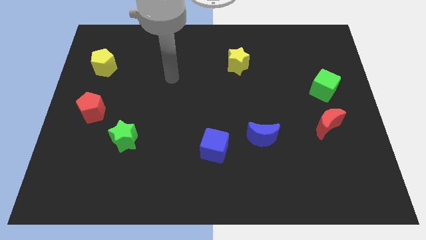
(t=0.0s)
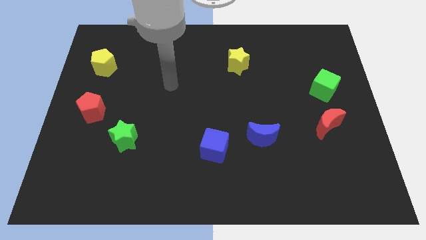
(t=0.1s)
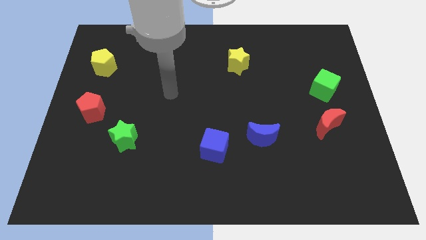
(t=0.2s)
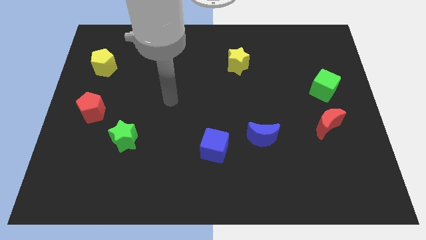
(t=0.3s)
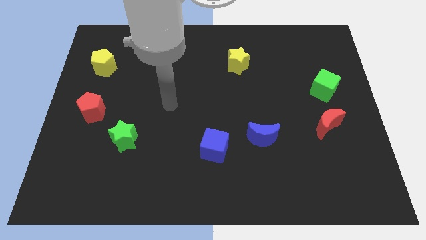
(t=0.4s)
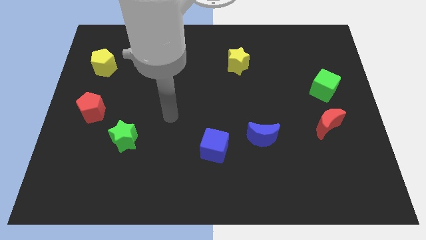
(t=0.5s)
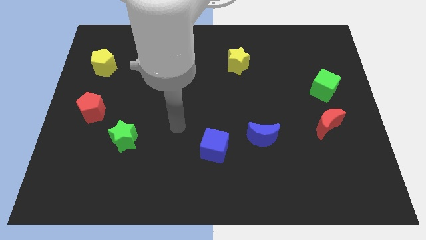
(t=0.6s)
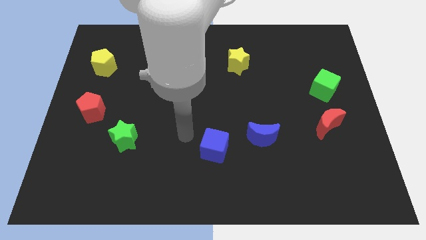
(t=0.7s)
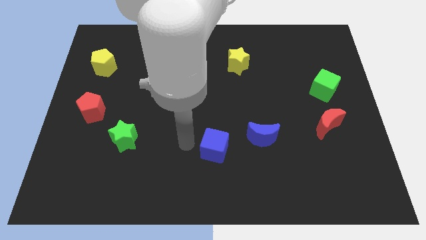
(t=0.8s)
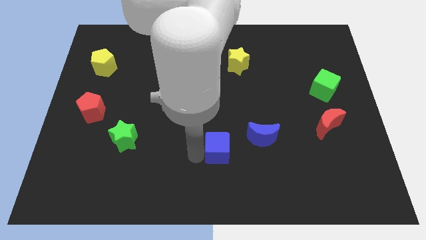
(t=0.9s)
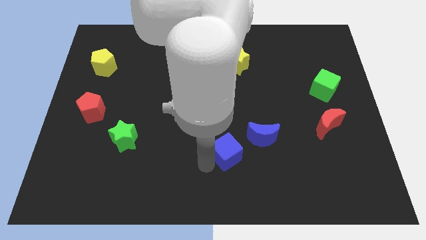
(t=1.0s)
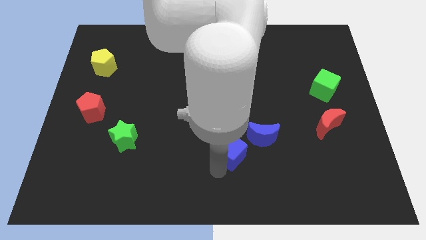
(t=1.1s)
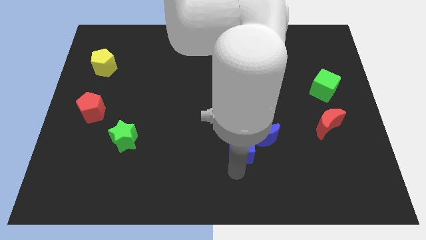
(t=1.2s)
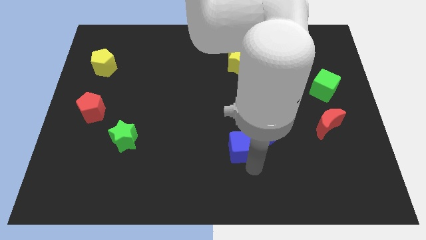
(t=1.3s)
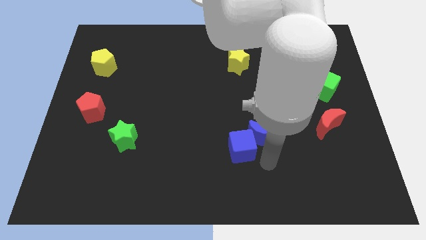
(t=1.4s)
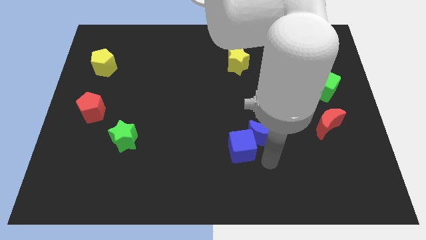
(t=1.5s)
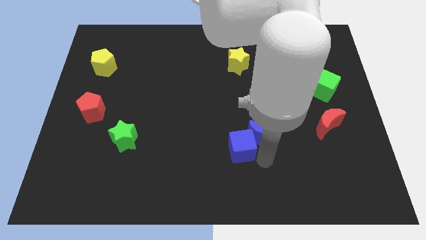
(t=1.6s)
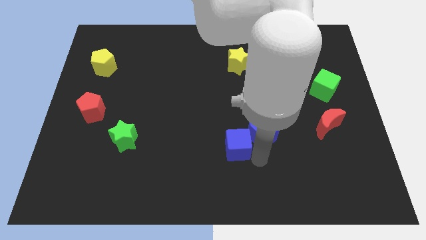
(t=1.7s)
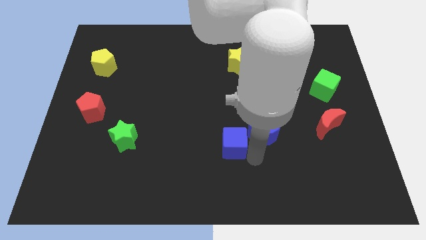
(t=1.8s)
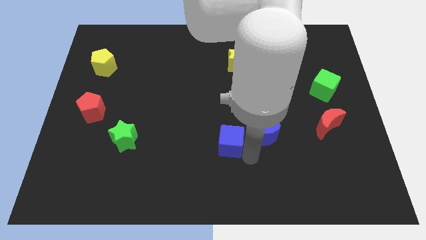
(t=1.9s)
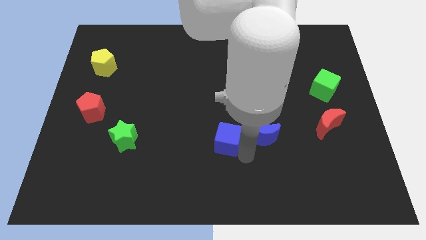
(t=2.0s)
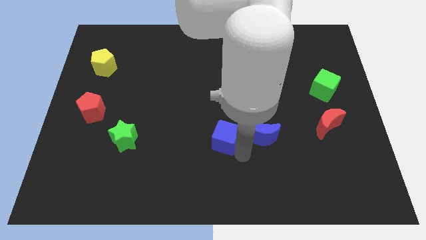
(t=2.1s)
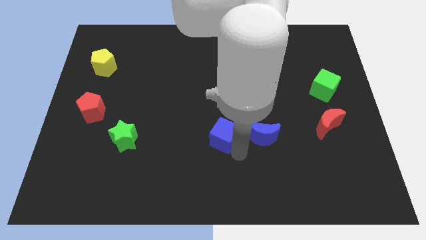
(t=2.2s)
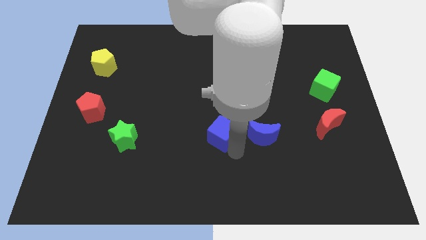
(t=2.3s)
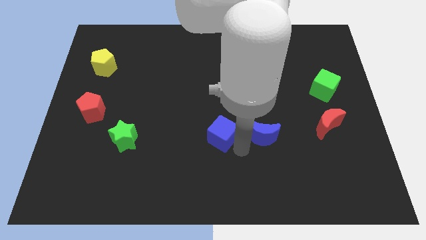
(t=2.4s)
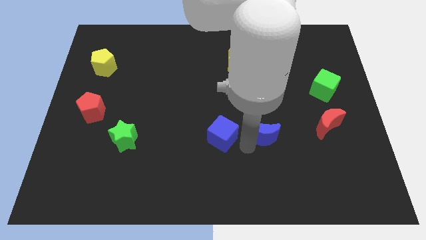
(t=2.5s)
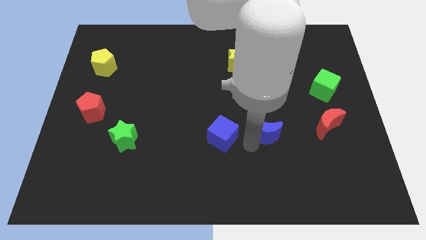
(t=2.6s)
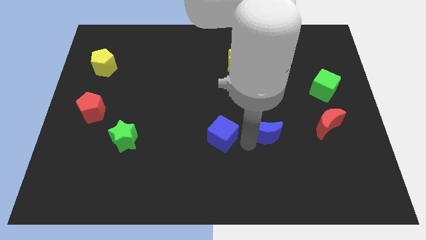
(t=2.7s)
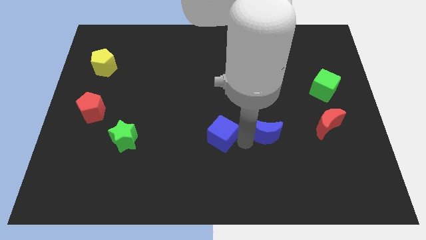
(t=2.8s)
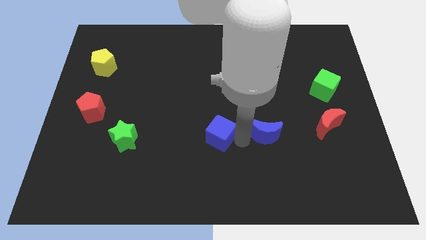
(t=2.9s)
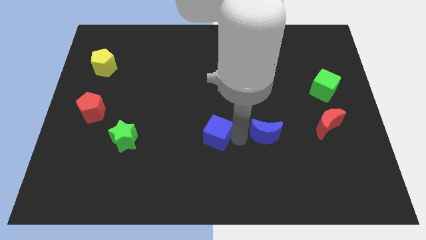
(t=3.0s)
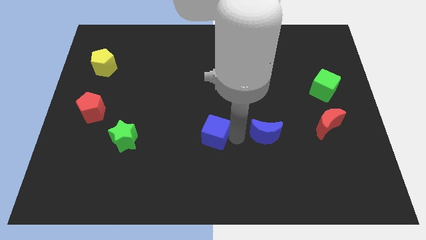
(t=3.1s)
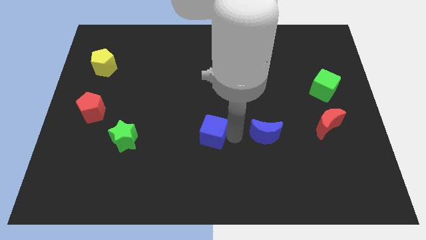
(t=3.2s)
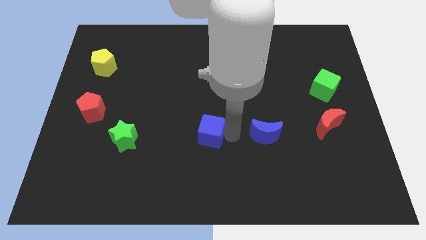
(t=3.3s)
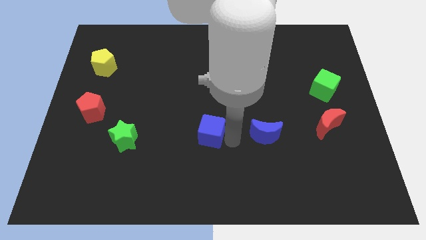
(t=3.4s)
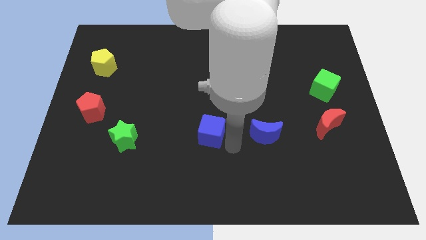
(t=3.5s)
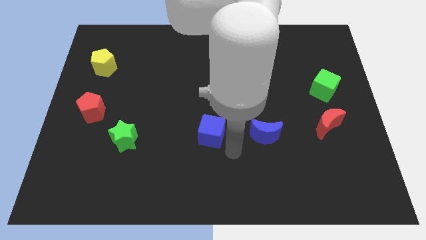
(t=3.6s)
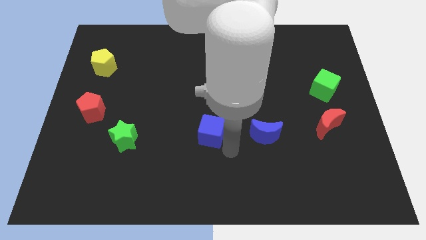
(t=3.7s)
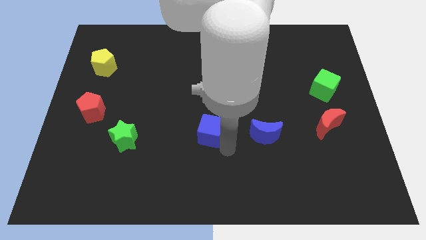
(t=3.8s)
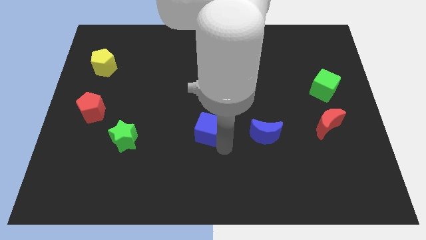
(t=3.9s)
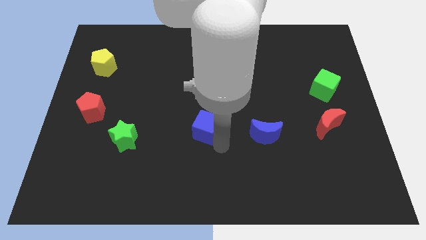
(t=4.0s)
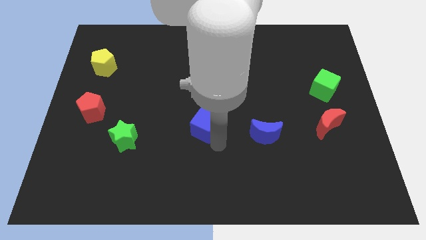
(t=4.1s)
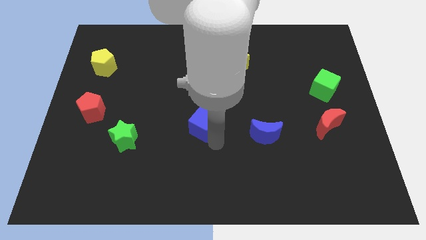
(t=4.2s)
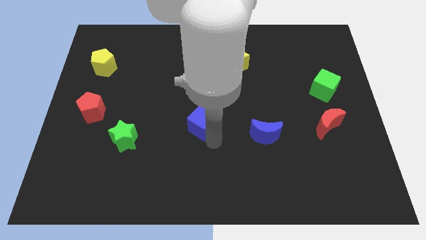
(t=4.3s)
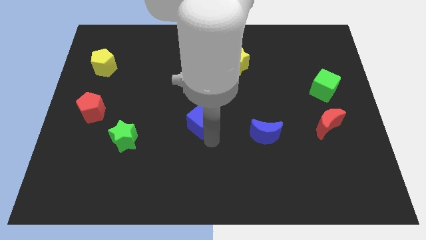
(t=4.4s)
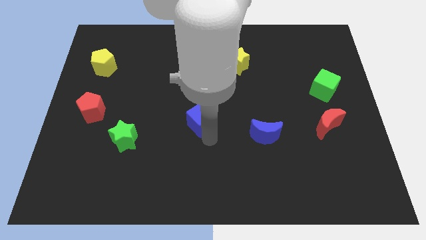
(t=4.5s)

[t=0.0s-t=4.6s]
slightly push the blue cube upwards and left diagonally

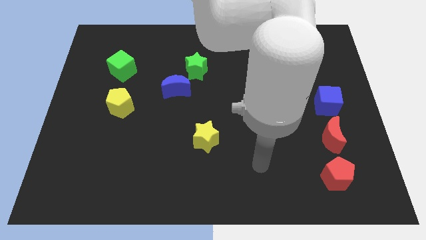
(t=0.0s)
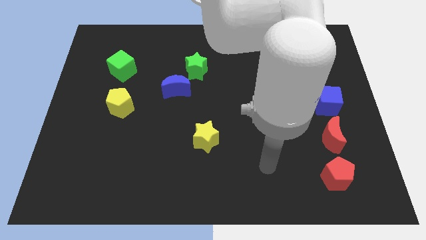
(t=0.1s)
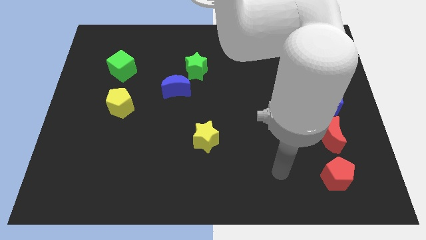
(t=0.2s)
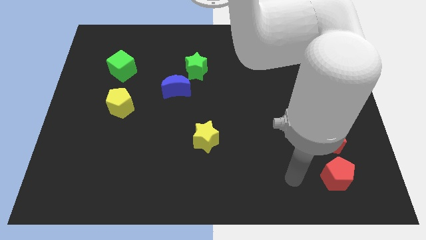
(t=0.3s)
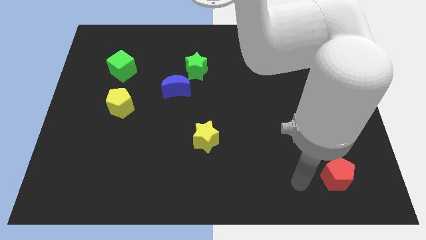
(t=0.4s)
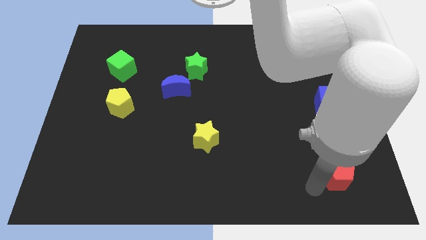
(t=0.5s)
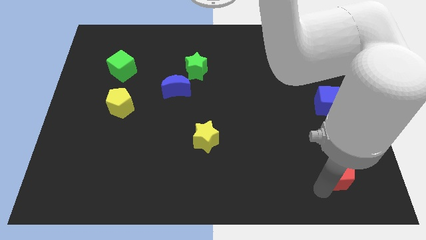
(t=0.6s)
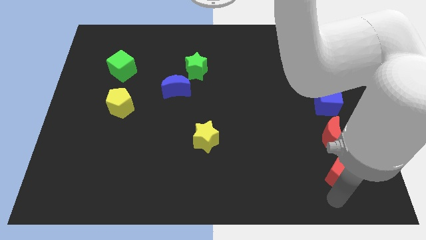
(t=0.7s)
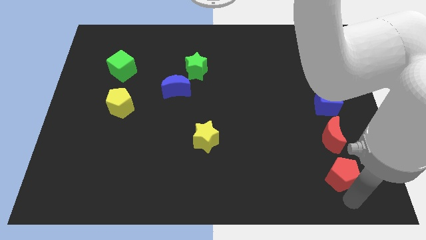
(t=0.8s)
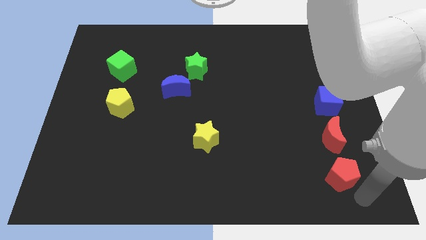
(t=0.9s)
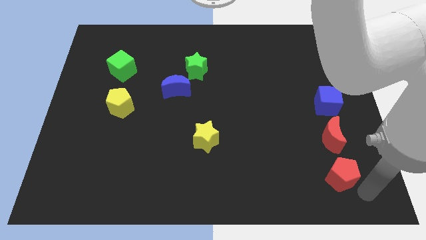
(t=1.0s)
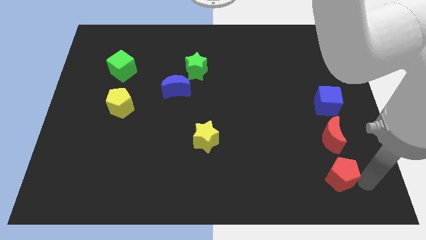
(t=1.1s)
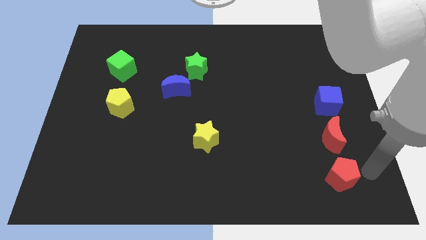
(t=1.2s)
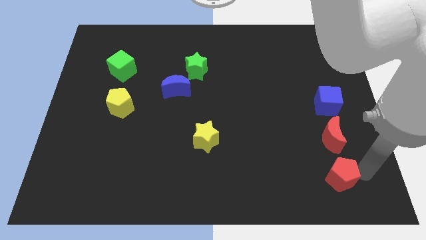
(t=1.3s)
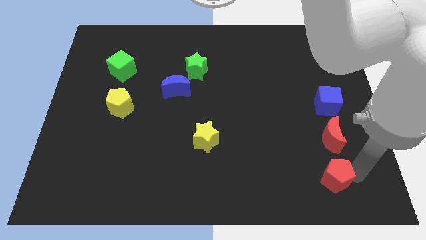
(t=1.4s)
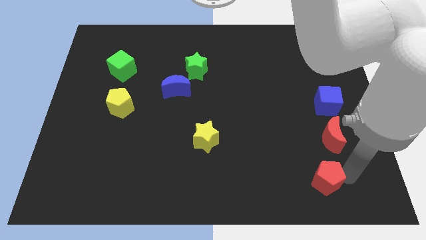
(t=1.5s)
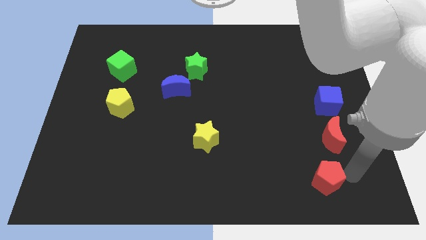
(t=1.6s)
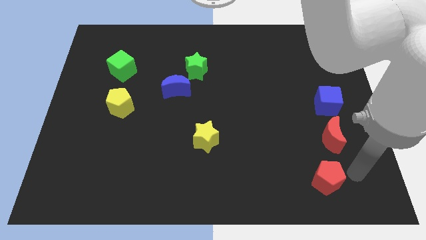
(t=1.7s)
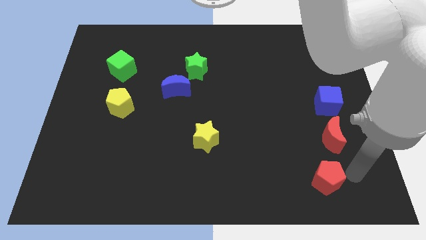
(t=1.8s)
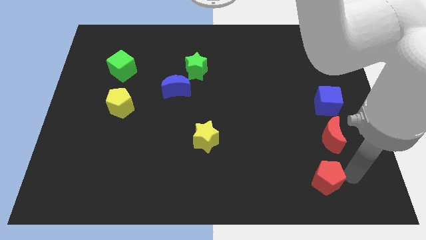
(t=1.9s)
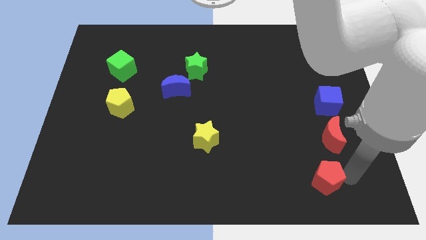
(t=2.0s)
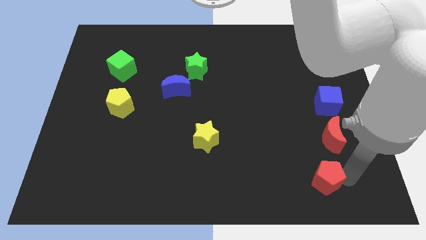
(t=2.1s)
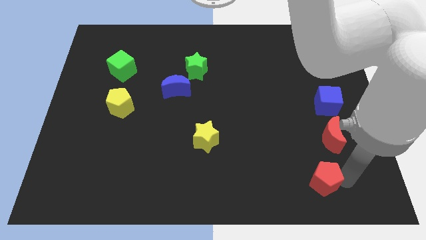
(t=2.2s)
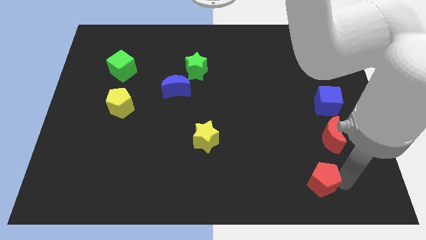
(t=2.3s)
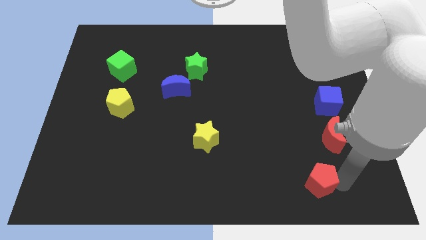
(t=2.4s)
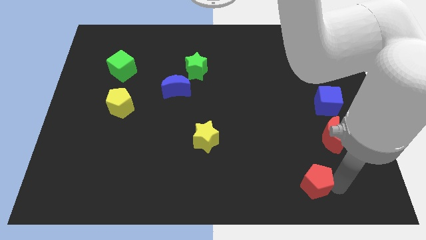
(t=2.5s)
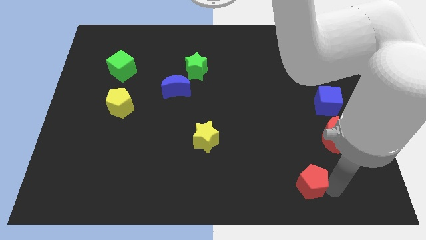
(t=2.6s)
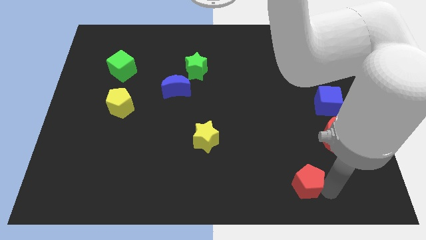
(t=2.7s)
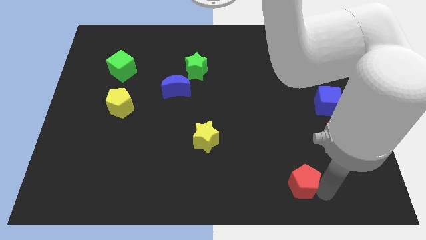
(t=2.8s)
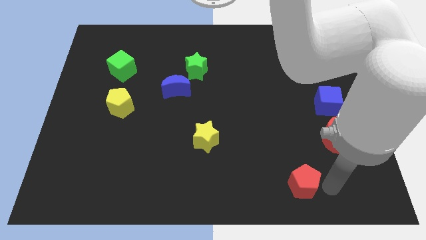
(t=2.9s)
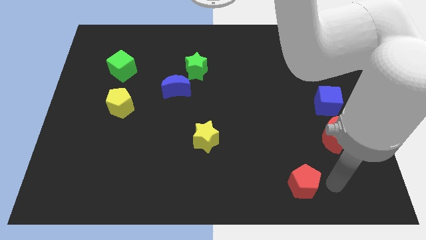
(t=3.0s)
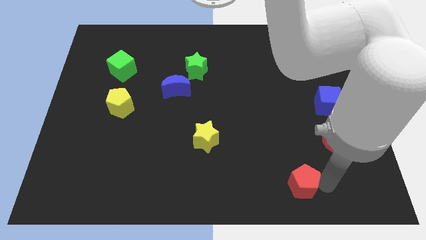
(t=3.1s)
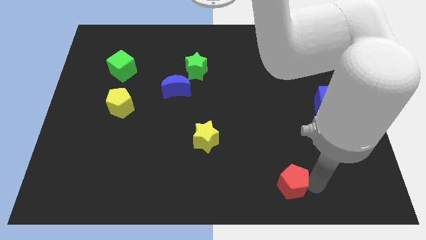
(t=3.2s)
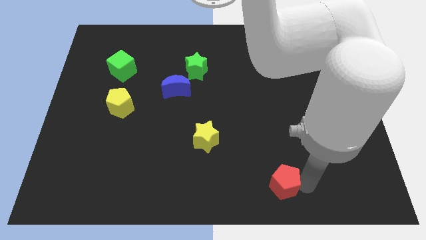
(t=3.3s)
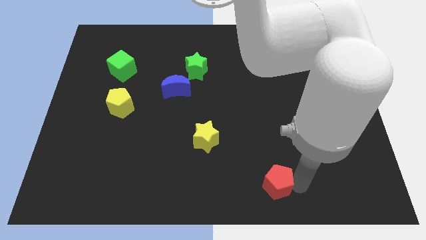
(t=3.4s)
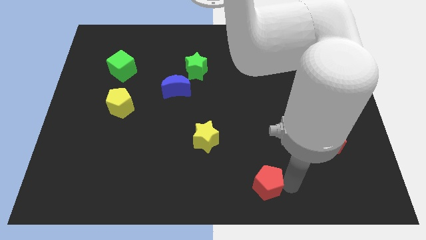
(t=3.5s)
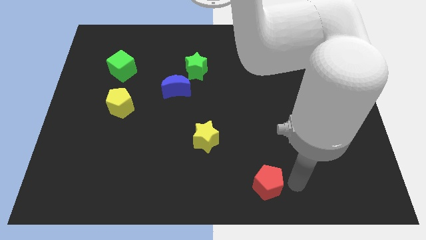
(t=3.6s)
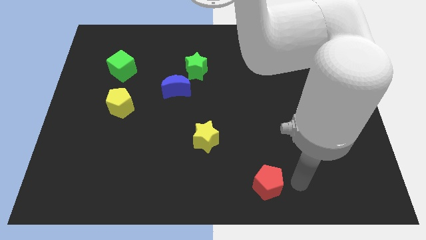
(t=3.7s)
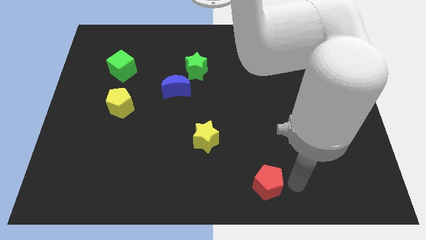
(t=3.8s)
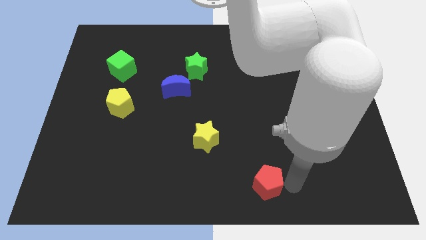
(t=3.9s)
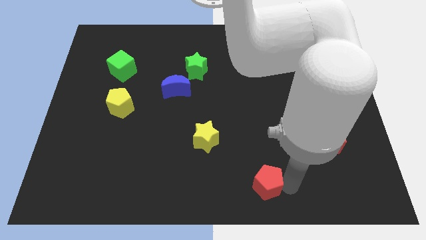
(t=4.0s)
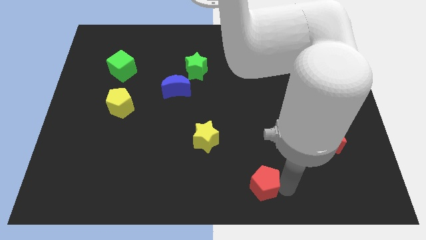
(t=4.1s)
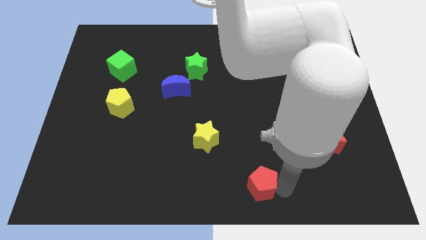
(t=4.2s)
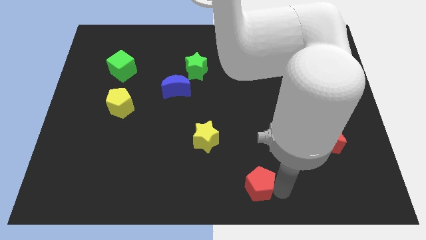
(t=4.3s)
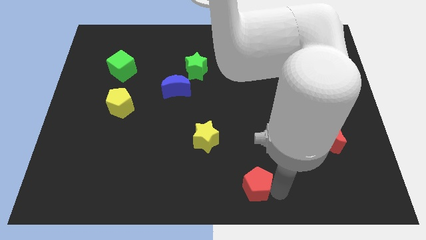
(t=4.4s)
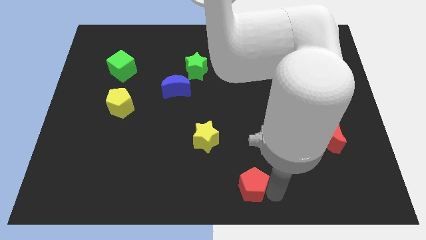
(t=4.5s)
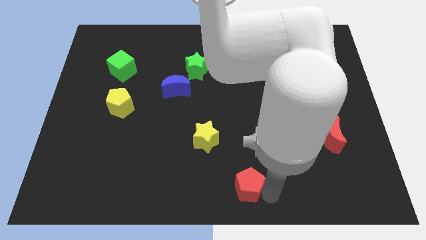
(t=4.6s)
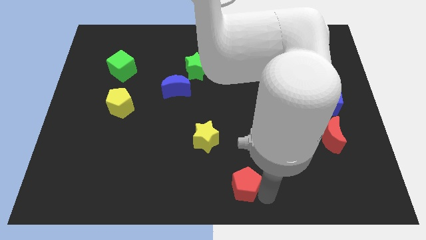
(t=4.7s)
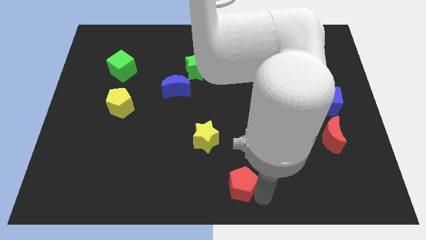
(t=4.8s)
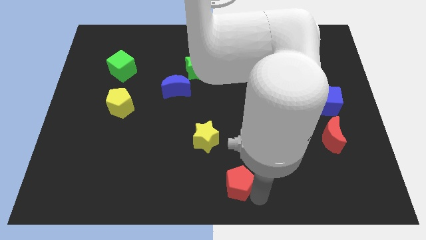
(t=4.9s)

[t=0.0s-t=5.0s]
slide the red pentagon left
